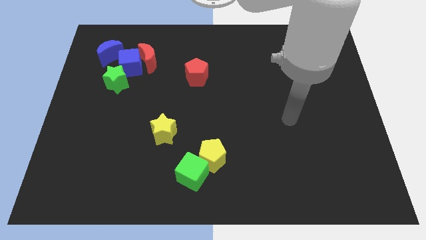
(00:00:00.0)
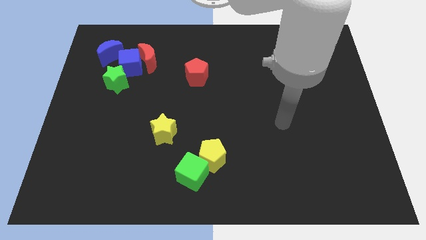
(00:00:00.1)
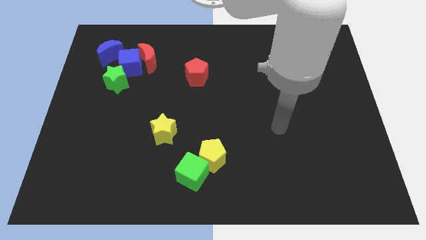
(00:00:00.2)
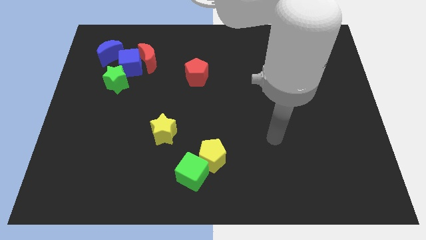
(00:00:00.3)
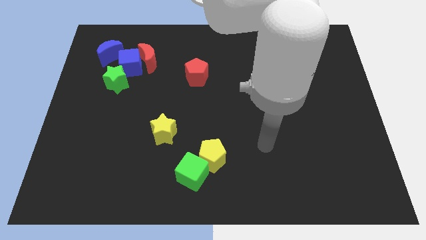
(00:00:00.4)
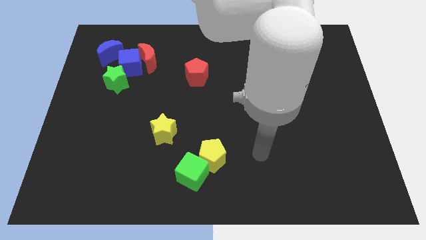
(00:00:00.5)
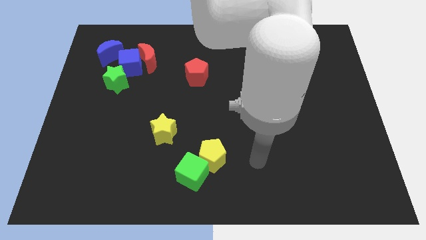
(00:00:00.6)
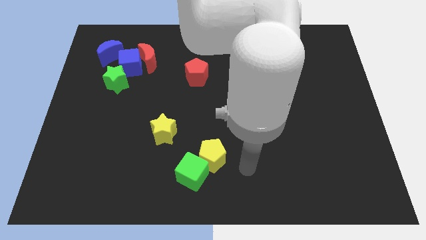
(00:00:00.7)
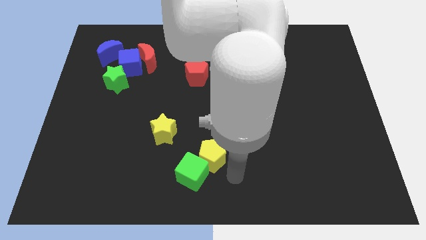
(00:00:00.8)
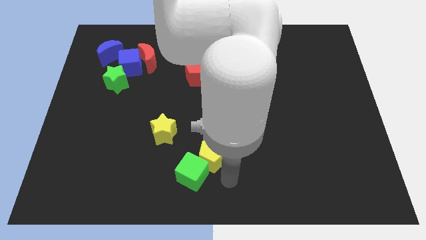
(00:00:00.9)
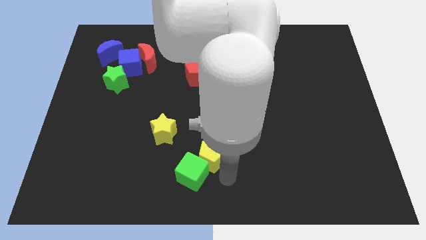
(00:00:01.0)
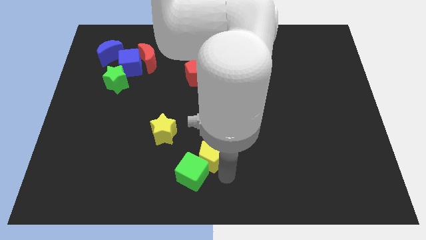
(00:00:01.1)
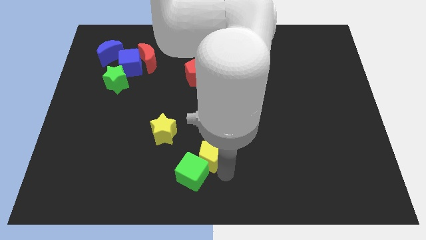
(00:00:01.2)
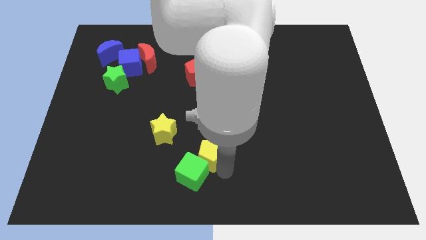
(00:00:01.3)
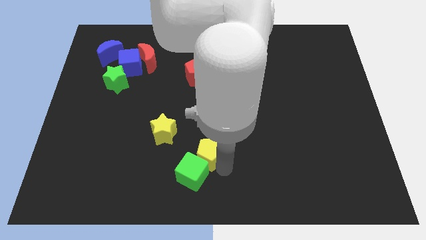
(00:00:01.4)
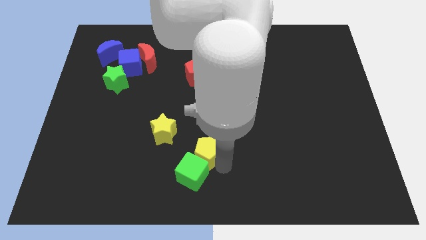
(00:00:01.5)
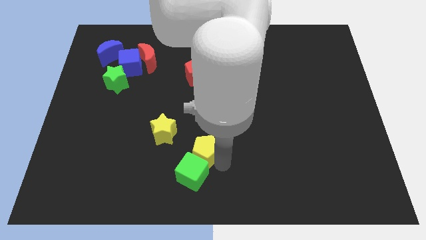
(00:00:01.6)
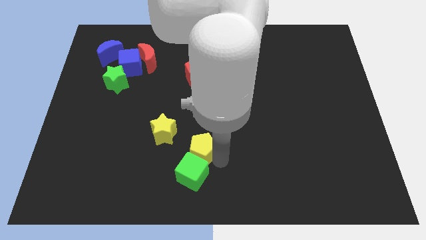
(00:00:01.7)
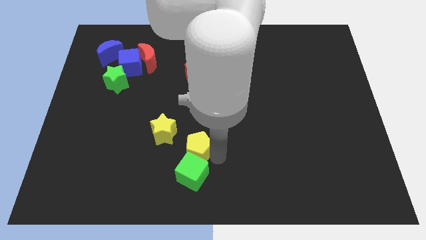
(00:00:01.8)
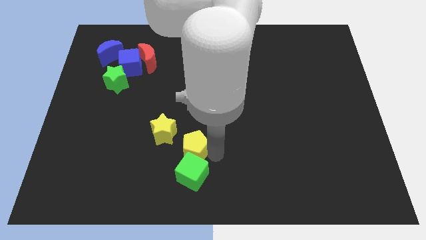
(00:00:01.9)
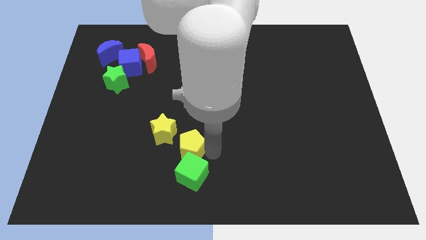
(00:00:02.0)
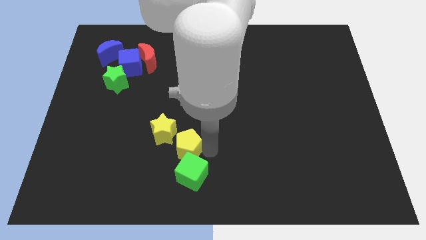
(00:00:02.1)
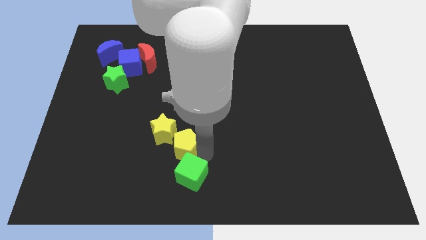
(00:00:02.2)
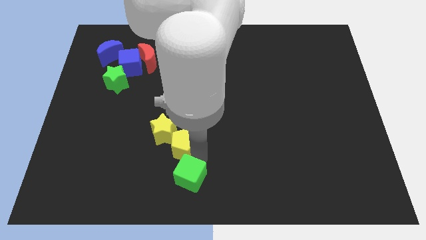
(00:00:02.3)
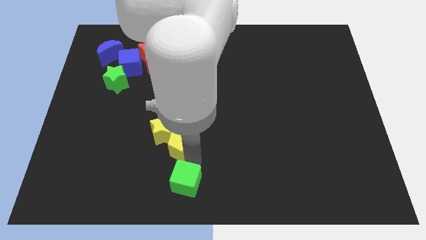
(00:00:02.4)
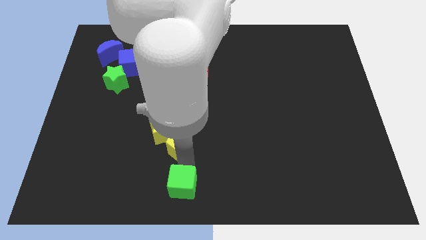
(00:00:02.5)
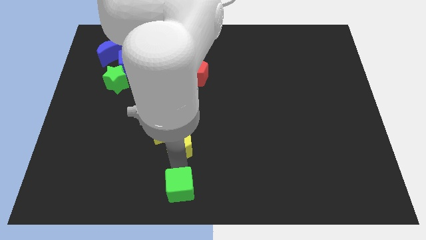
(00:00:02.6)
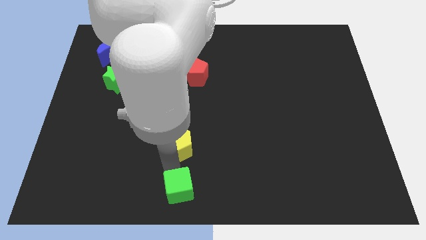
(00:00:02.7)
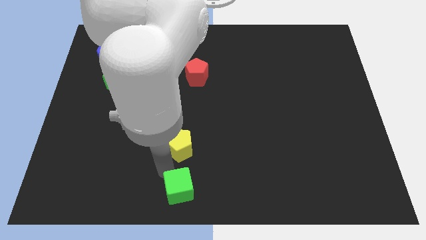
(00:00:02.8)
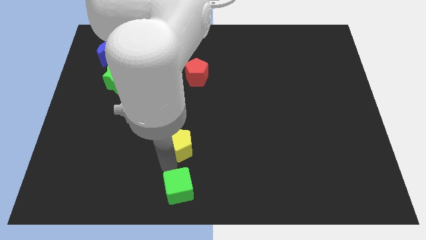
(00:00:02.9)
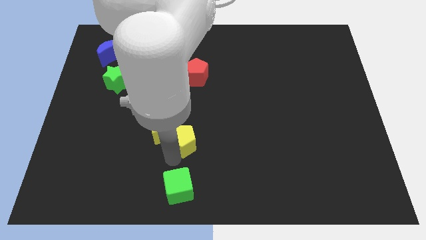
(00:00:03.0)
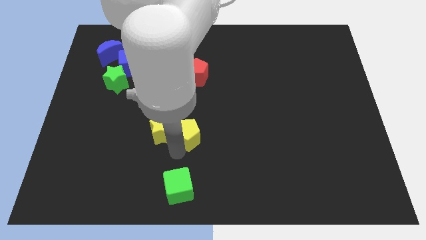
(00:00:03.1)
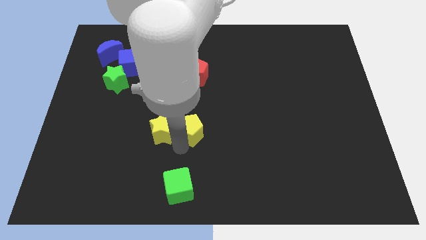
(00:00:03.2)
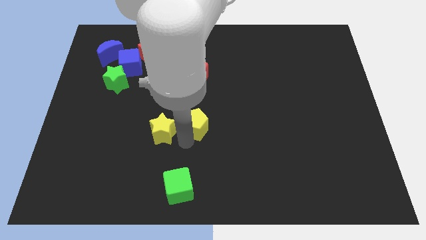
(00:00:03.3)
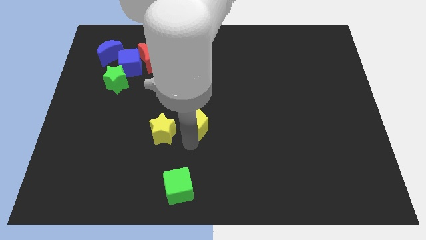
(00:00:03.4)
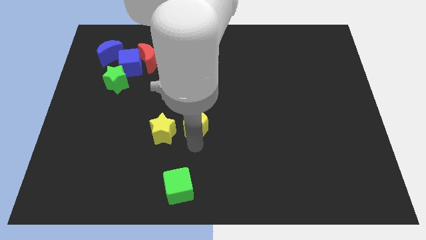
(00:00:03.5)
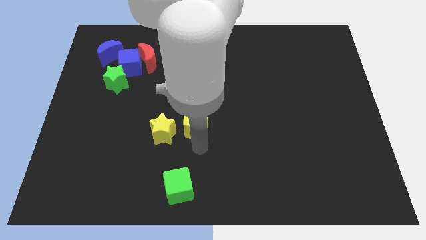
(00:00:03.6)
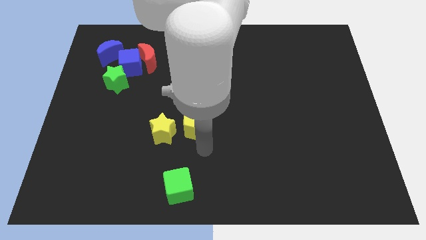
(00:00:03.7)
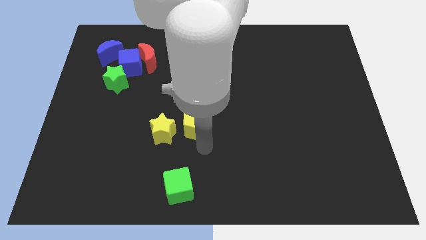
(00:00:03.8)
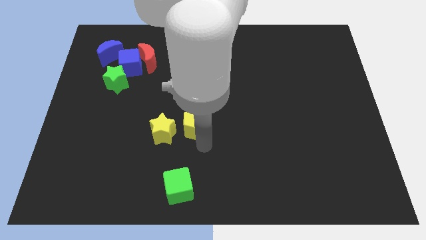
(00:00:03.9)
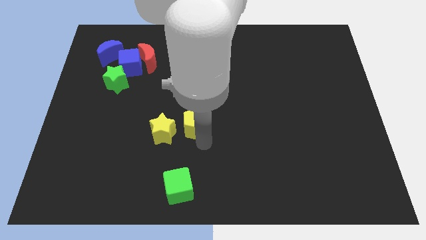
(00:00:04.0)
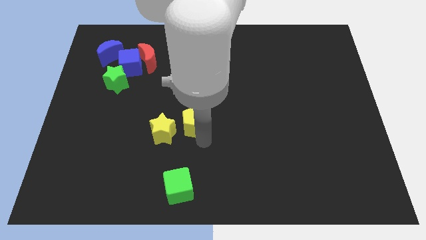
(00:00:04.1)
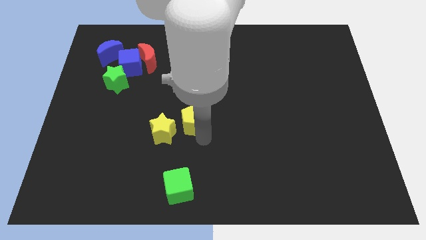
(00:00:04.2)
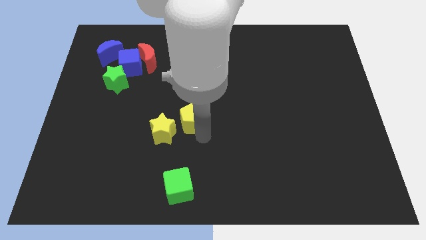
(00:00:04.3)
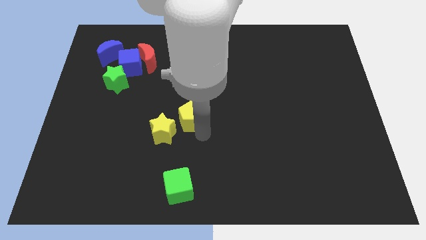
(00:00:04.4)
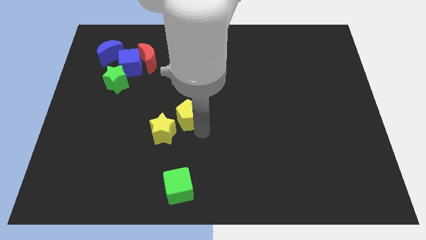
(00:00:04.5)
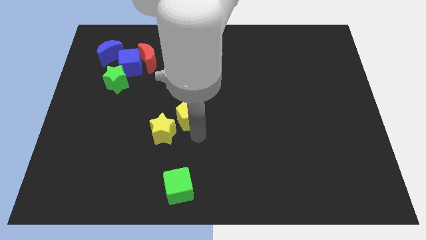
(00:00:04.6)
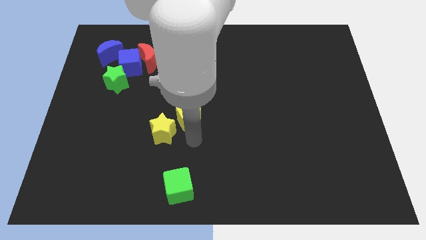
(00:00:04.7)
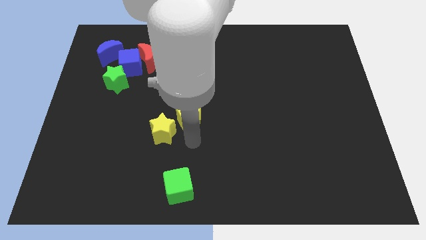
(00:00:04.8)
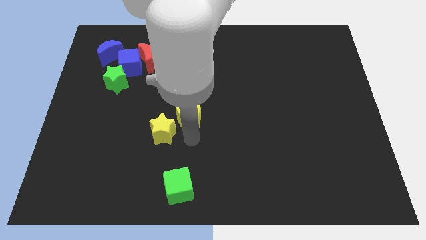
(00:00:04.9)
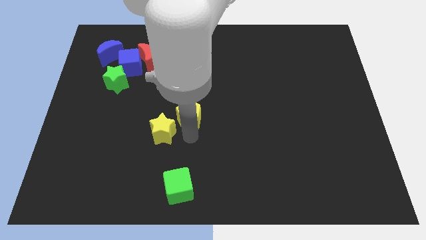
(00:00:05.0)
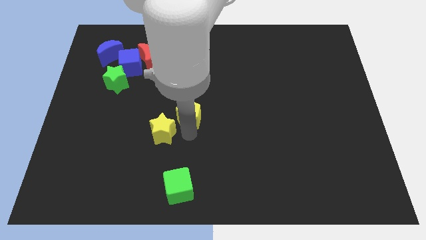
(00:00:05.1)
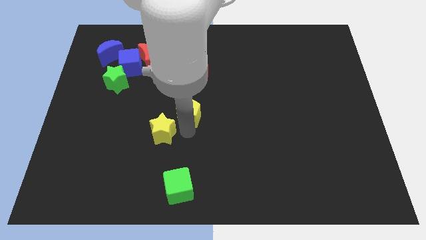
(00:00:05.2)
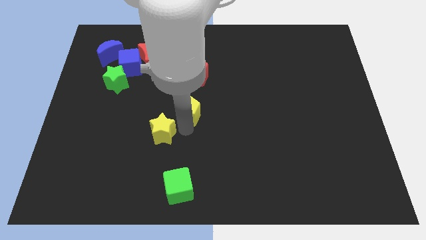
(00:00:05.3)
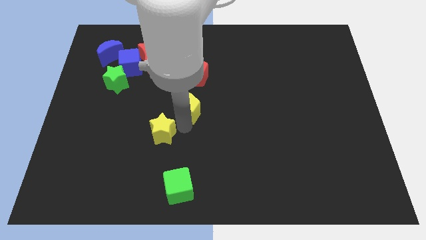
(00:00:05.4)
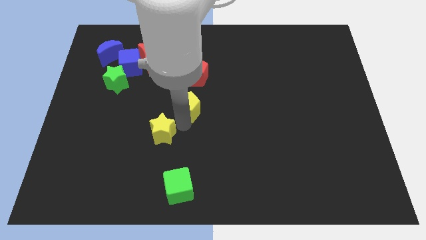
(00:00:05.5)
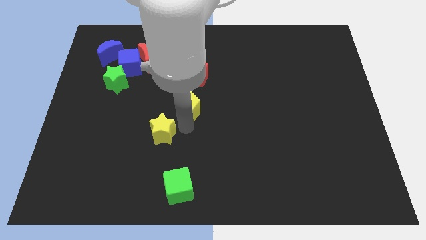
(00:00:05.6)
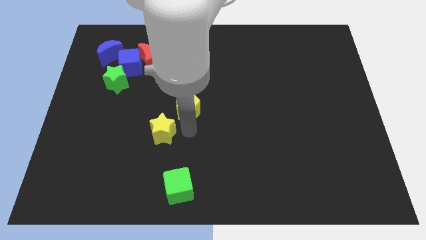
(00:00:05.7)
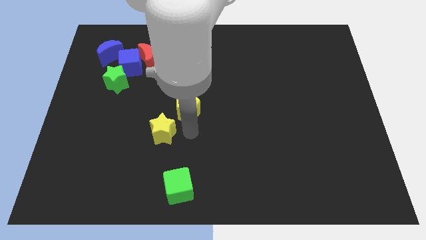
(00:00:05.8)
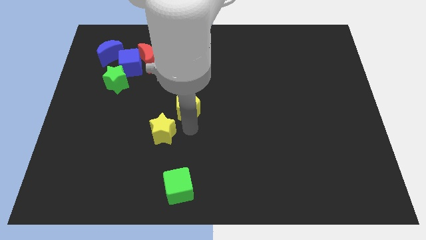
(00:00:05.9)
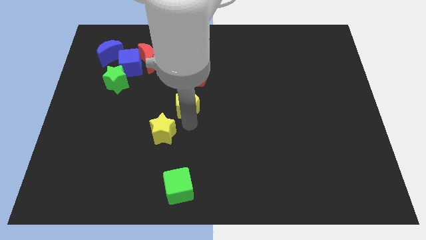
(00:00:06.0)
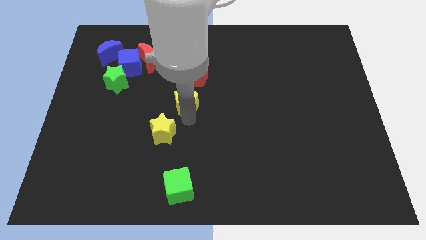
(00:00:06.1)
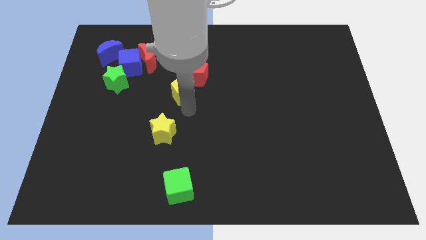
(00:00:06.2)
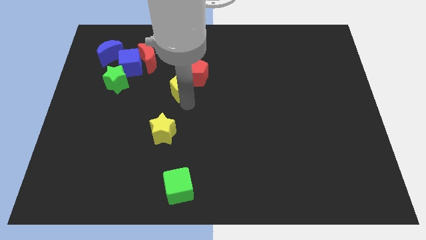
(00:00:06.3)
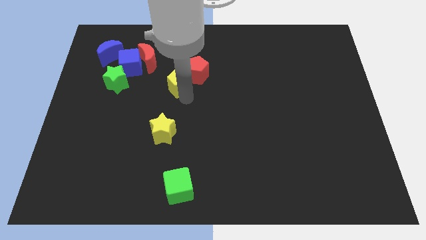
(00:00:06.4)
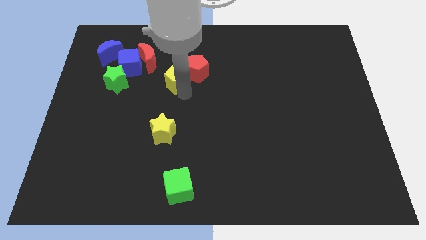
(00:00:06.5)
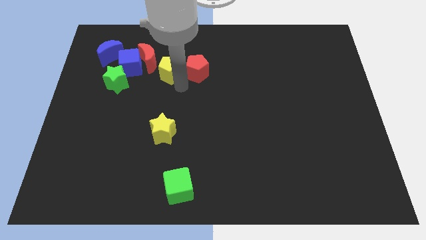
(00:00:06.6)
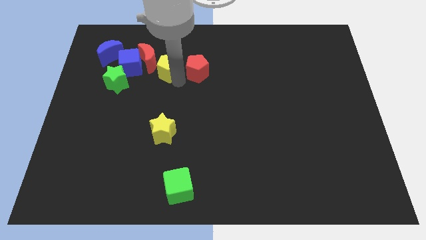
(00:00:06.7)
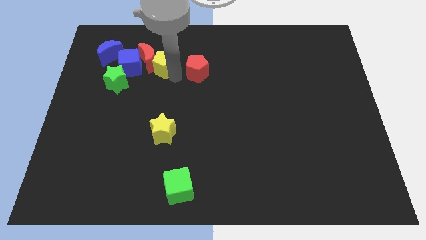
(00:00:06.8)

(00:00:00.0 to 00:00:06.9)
move the yellow pentagon towards the red moon
